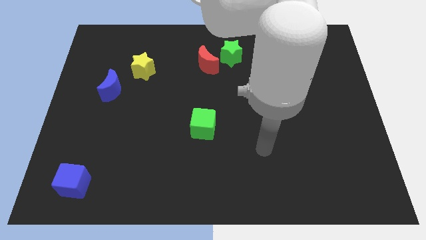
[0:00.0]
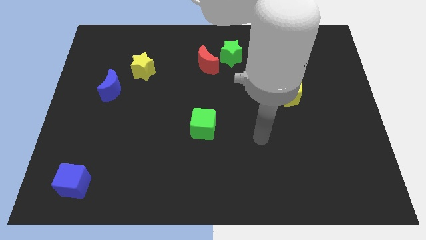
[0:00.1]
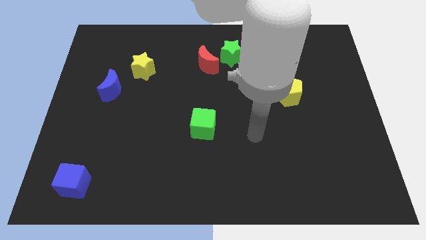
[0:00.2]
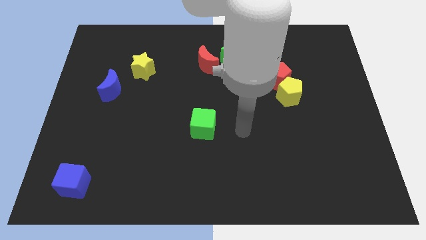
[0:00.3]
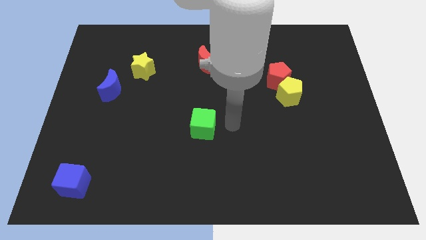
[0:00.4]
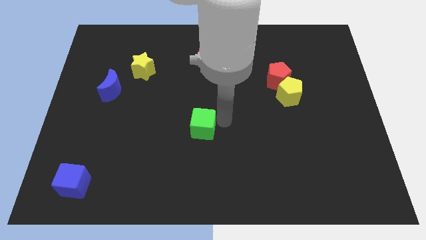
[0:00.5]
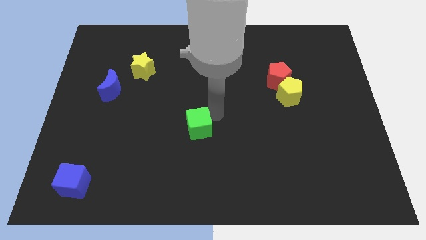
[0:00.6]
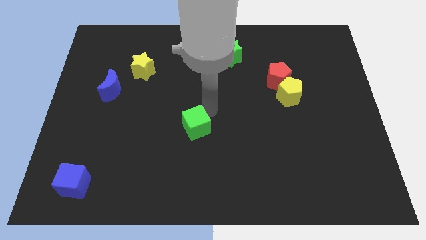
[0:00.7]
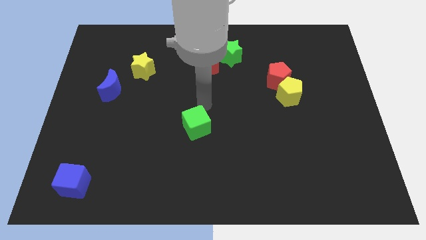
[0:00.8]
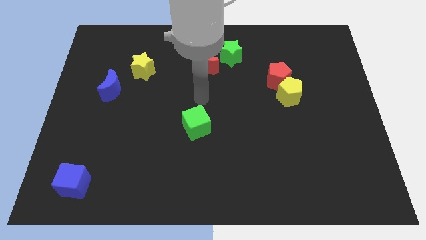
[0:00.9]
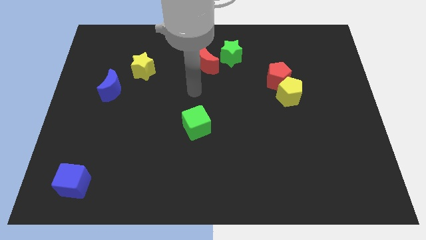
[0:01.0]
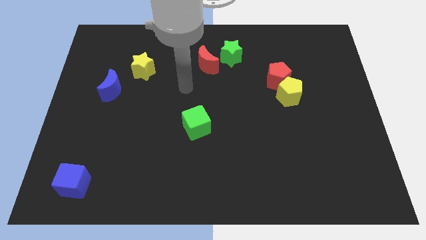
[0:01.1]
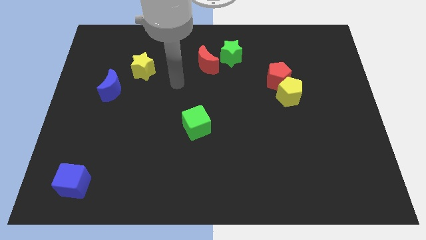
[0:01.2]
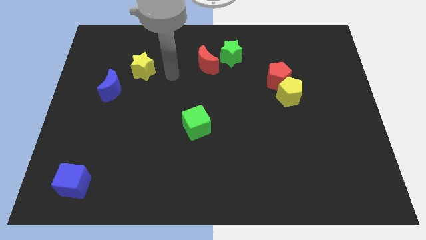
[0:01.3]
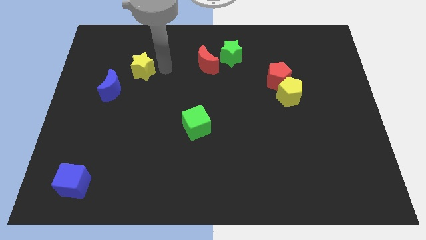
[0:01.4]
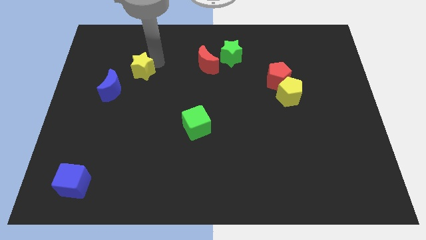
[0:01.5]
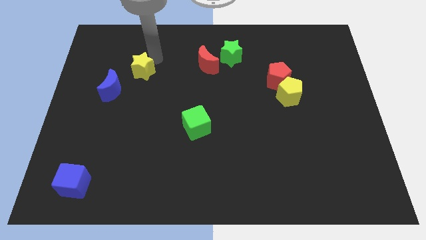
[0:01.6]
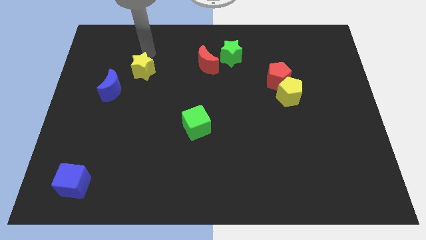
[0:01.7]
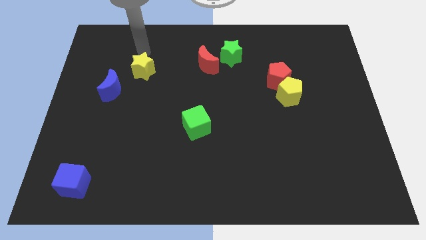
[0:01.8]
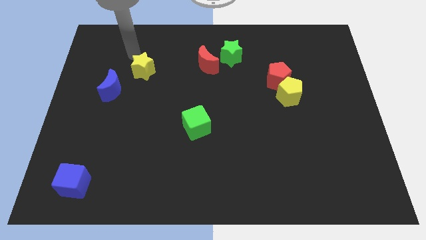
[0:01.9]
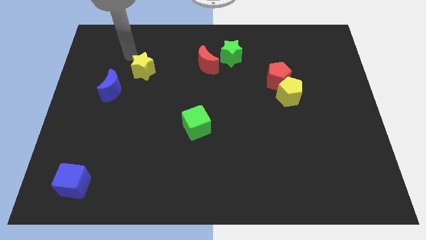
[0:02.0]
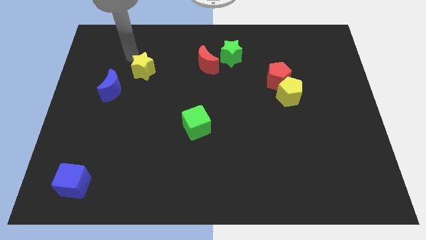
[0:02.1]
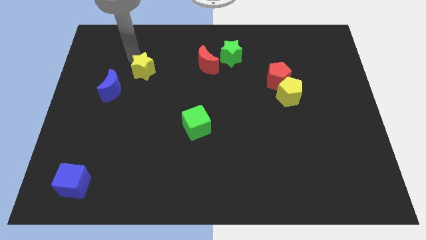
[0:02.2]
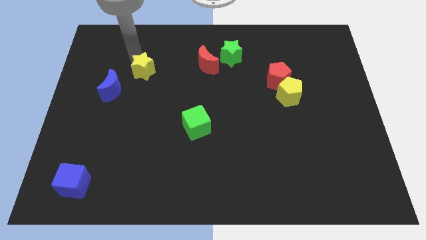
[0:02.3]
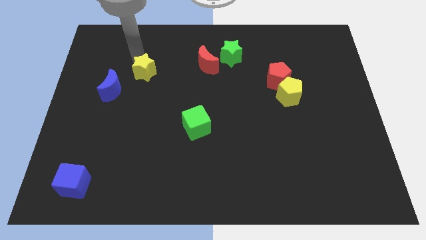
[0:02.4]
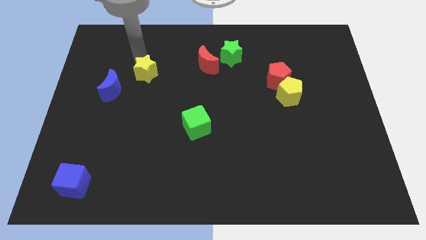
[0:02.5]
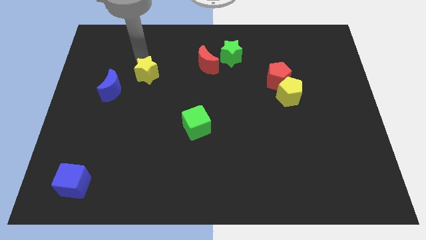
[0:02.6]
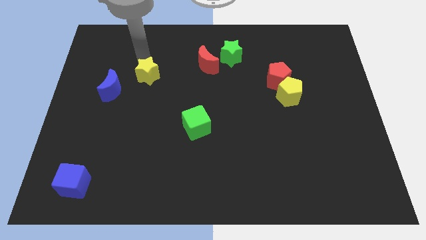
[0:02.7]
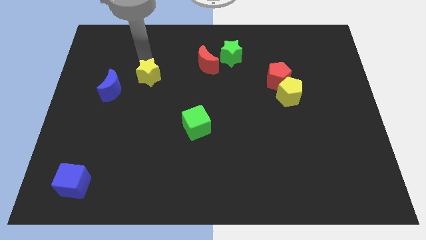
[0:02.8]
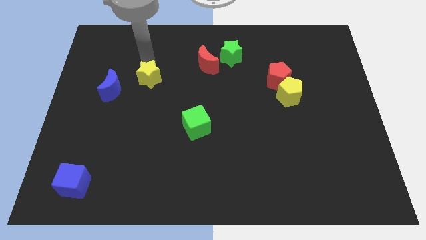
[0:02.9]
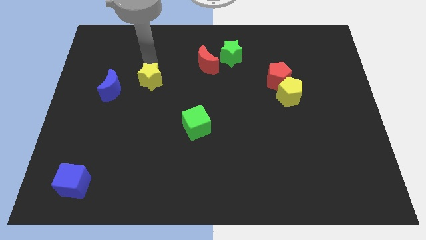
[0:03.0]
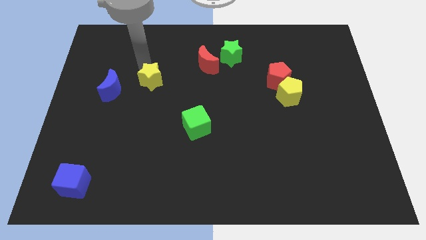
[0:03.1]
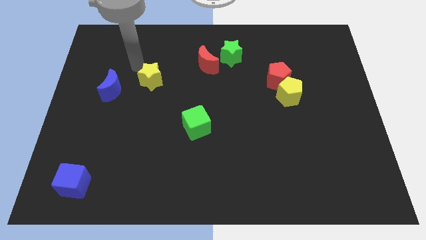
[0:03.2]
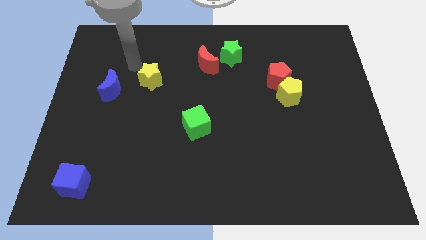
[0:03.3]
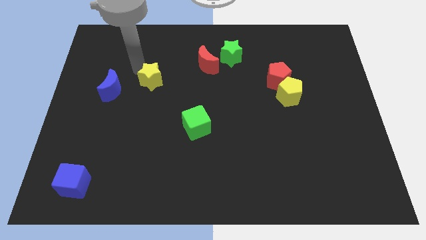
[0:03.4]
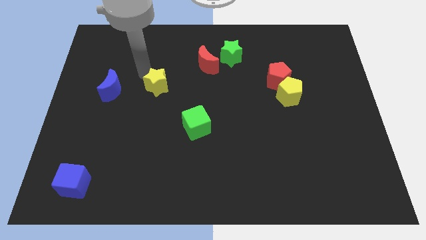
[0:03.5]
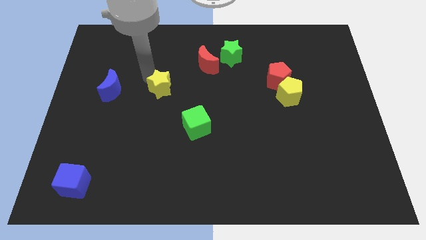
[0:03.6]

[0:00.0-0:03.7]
move the yellow star down and then to the right a little

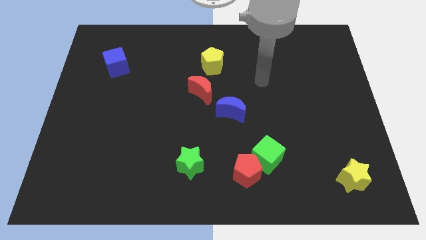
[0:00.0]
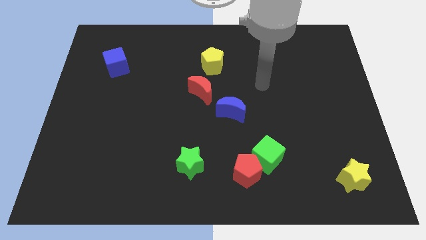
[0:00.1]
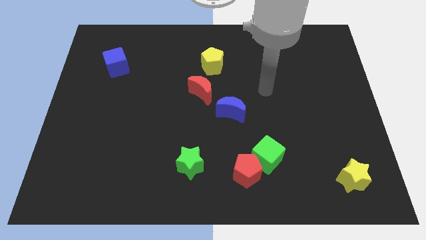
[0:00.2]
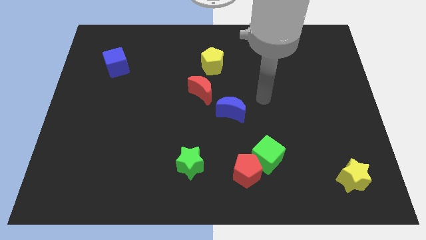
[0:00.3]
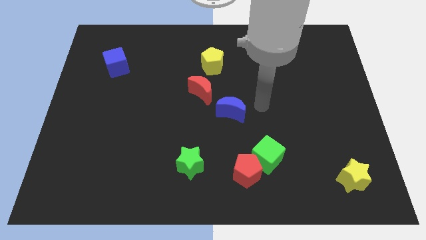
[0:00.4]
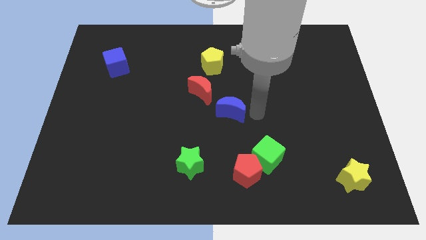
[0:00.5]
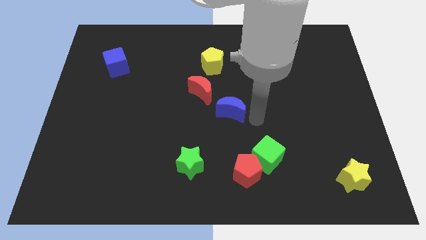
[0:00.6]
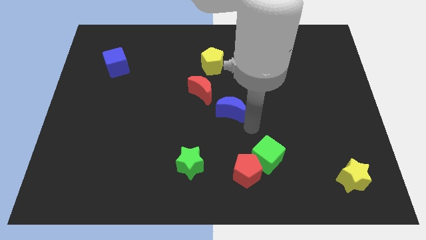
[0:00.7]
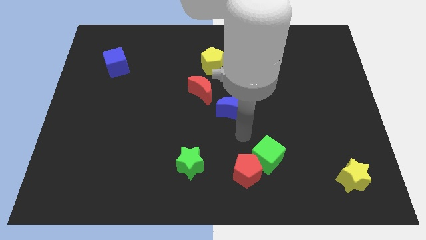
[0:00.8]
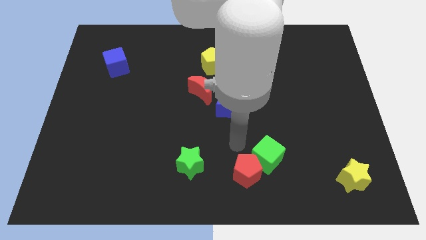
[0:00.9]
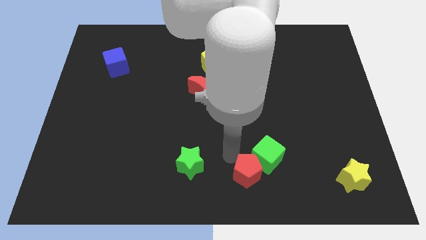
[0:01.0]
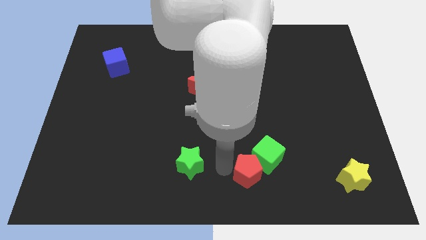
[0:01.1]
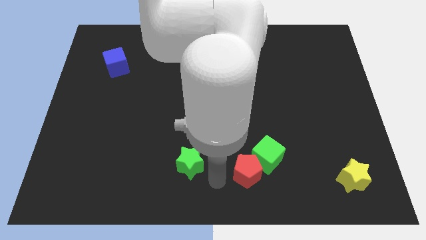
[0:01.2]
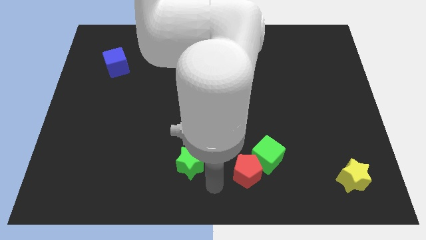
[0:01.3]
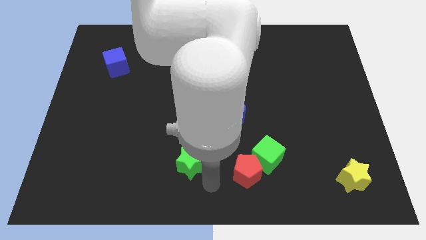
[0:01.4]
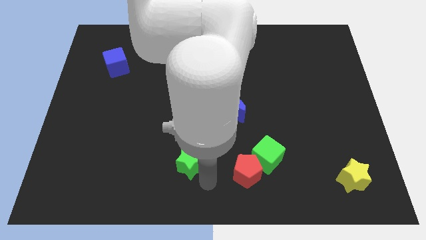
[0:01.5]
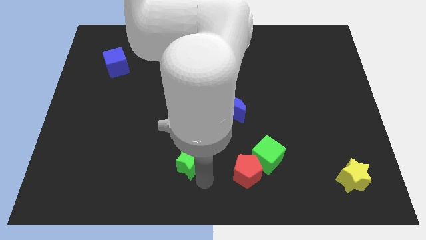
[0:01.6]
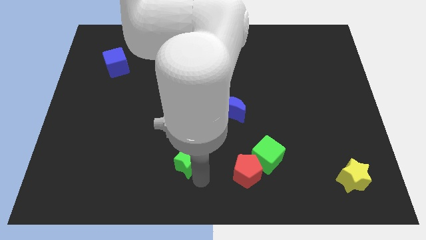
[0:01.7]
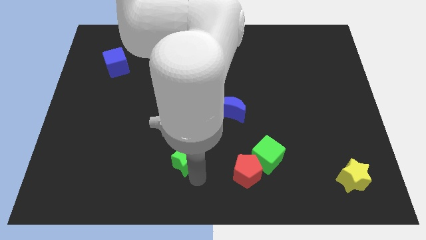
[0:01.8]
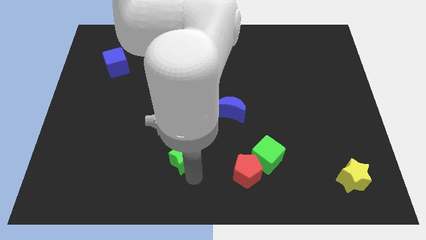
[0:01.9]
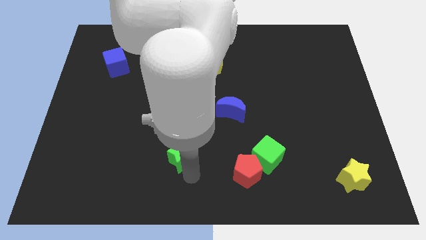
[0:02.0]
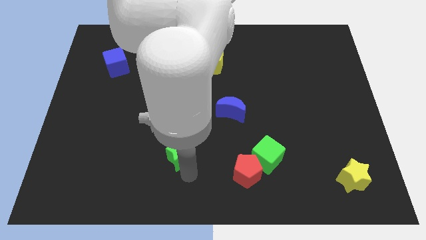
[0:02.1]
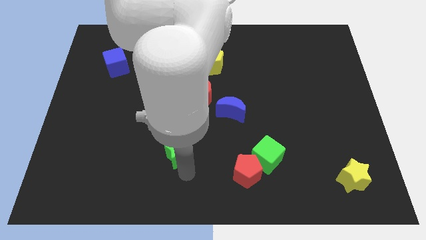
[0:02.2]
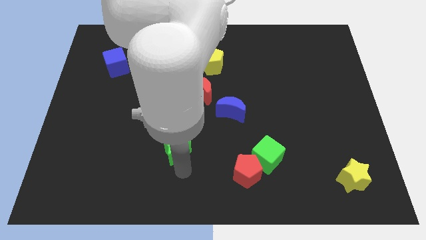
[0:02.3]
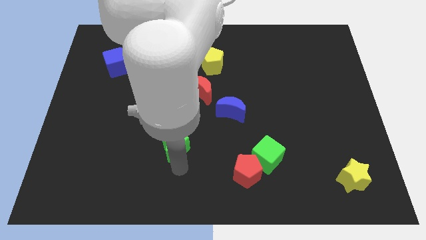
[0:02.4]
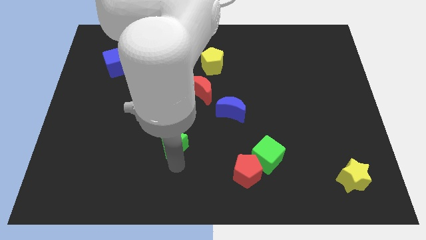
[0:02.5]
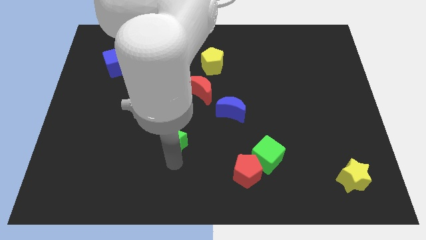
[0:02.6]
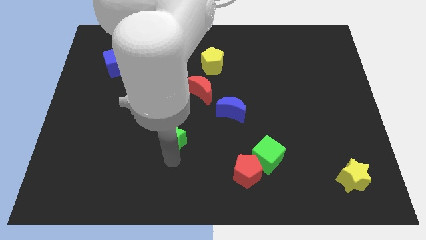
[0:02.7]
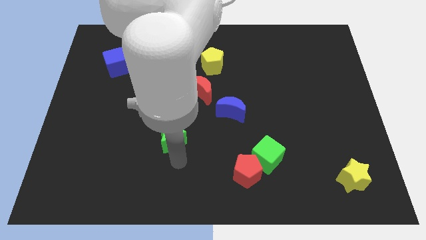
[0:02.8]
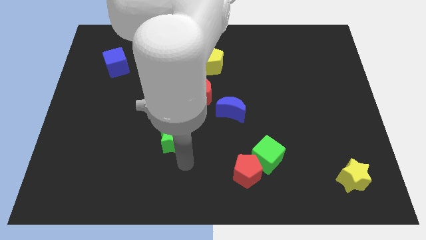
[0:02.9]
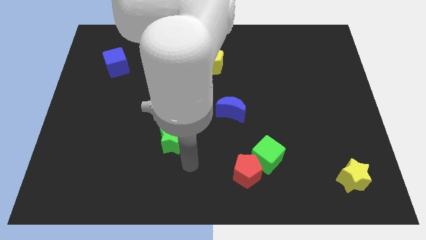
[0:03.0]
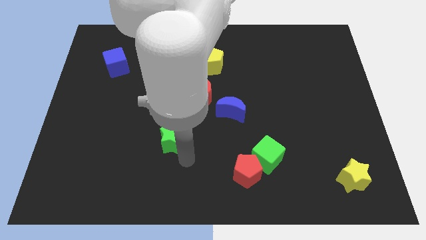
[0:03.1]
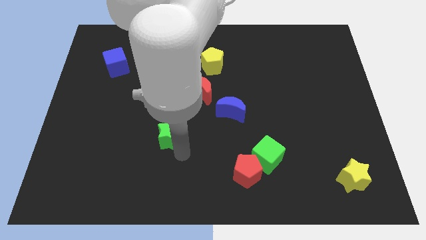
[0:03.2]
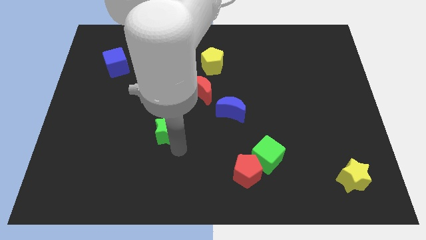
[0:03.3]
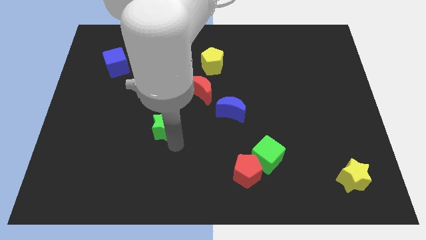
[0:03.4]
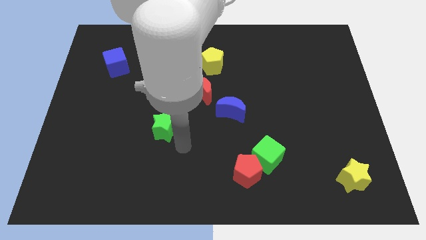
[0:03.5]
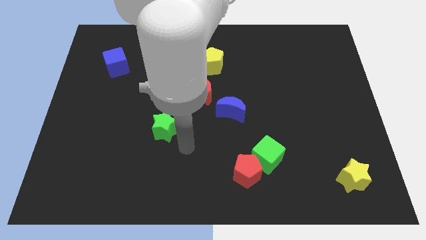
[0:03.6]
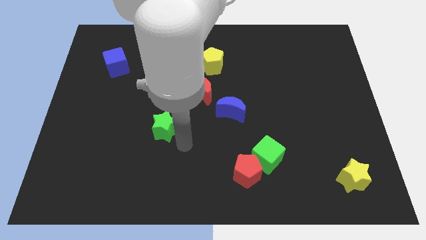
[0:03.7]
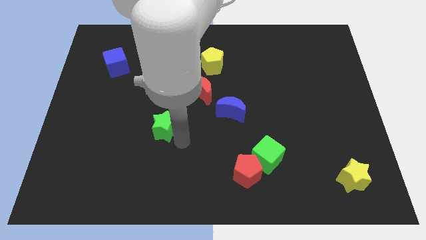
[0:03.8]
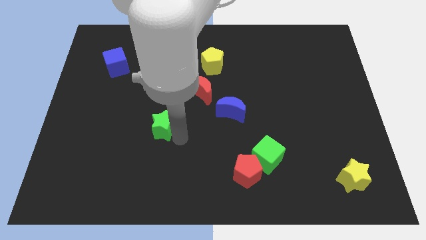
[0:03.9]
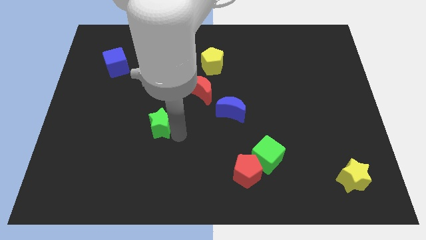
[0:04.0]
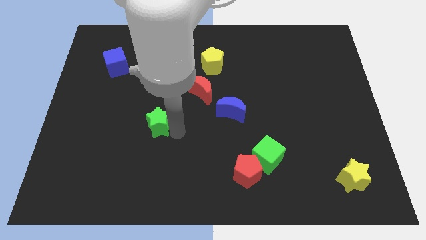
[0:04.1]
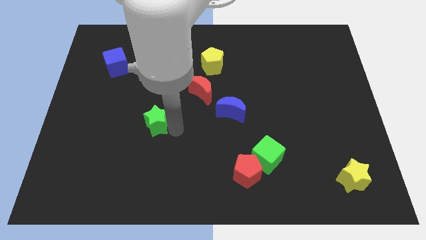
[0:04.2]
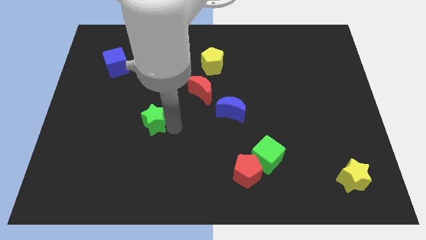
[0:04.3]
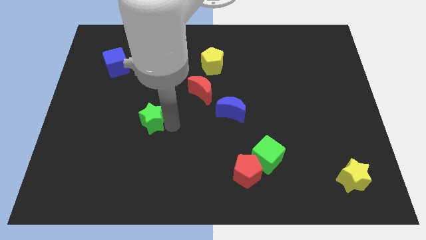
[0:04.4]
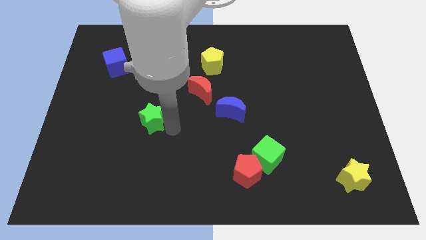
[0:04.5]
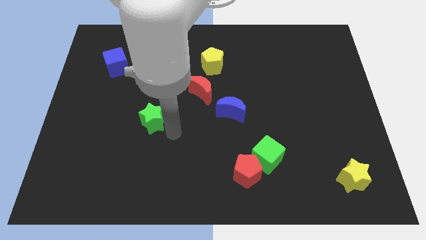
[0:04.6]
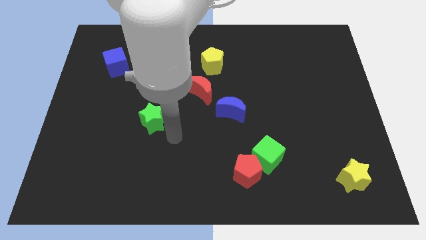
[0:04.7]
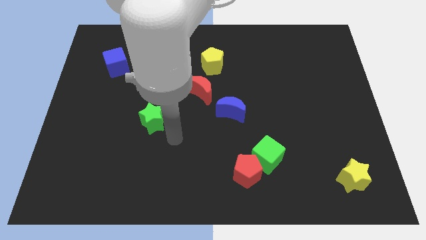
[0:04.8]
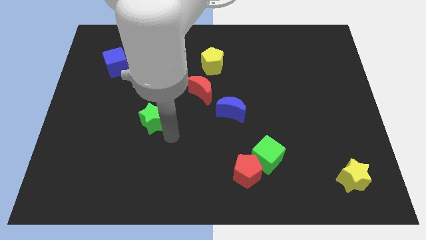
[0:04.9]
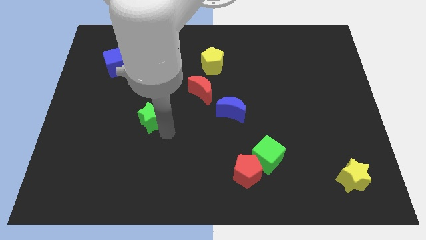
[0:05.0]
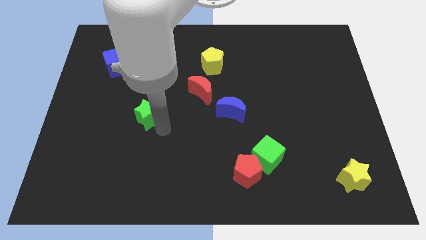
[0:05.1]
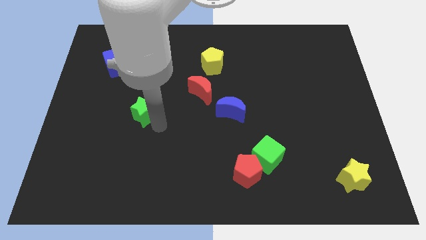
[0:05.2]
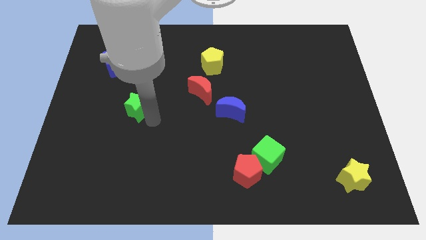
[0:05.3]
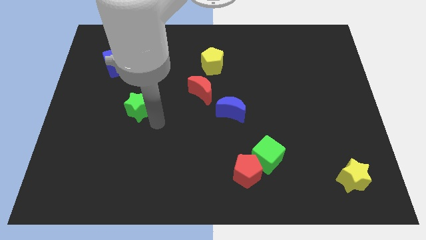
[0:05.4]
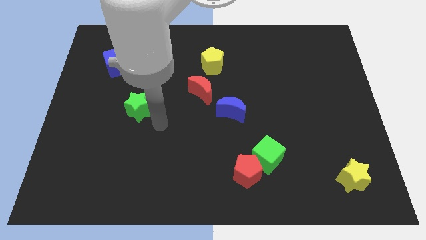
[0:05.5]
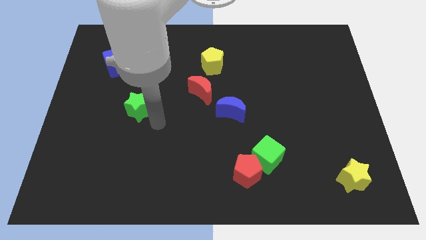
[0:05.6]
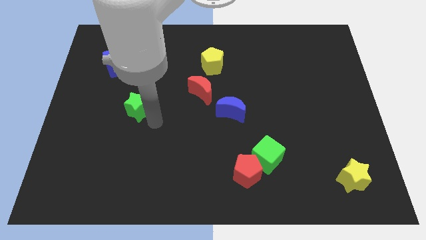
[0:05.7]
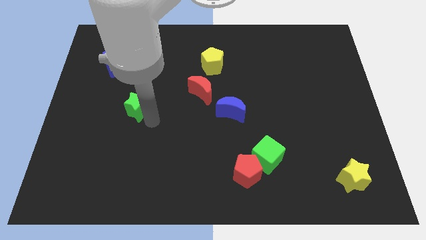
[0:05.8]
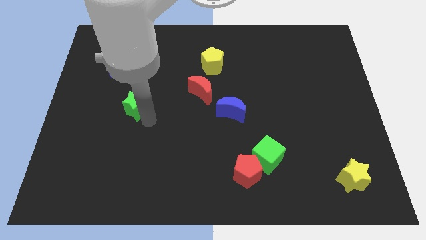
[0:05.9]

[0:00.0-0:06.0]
move the green star upwards and to the left diagonally
